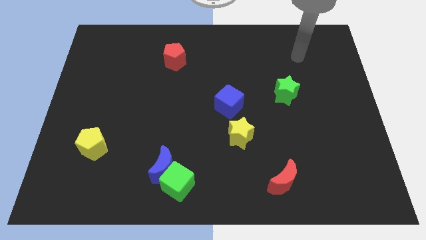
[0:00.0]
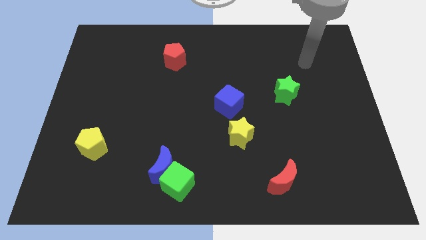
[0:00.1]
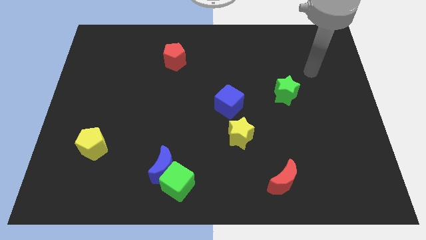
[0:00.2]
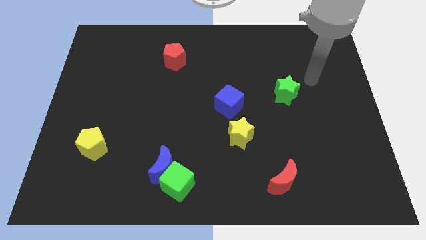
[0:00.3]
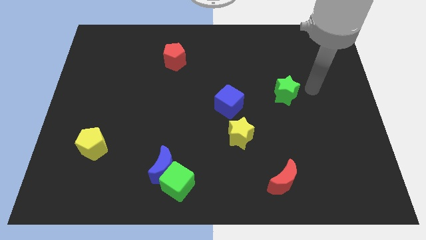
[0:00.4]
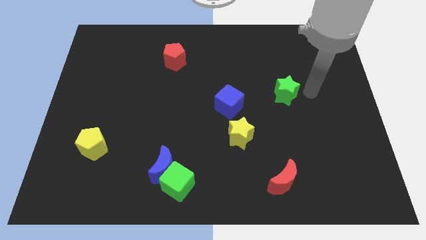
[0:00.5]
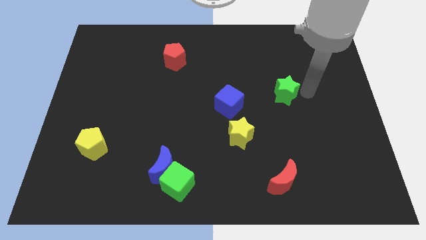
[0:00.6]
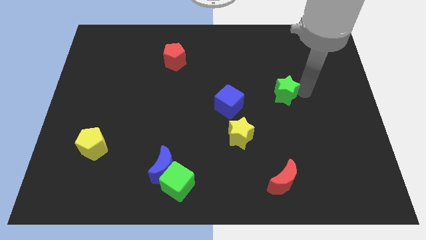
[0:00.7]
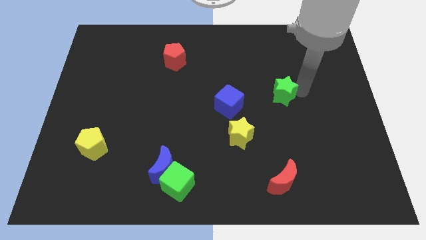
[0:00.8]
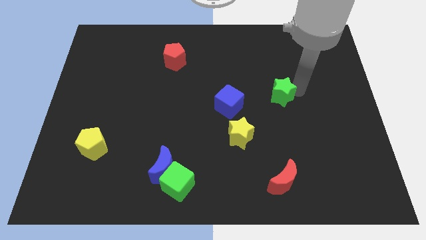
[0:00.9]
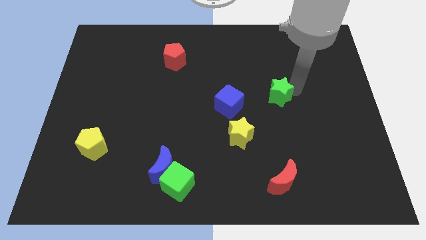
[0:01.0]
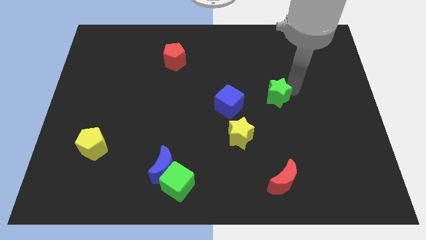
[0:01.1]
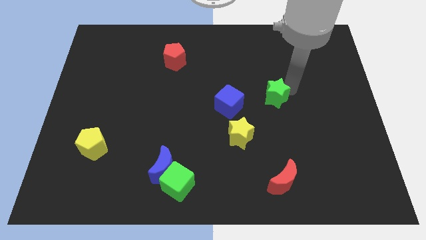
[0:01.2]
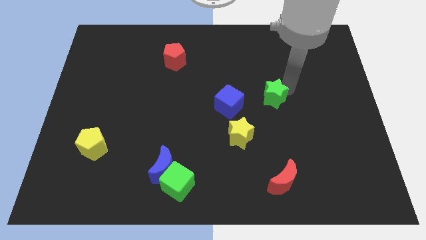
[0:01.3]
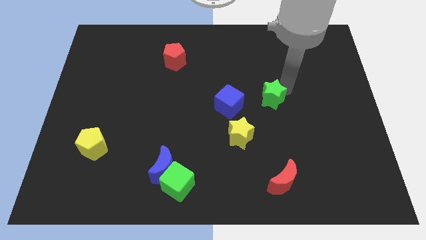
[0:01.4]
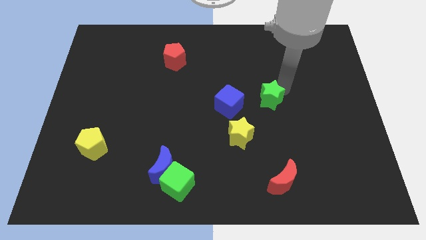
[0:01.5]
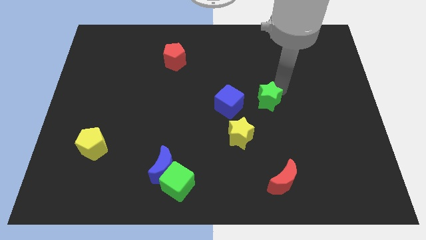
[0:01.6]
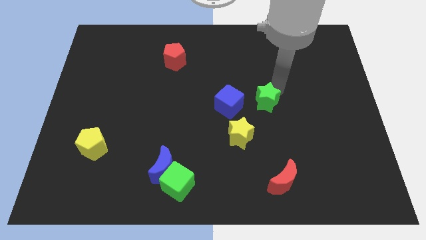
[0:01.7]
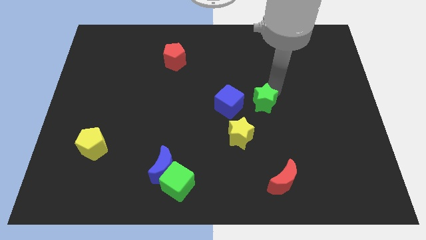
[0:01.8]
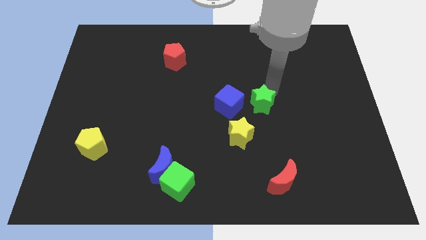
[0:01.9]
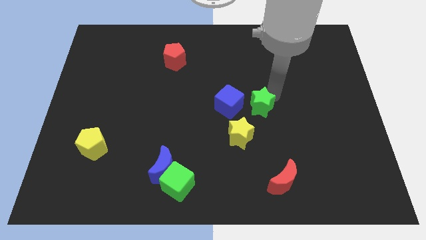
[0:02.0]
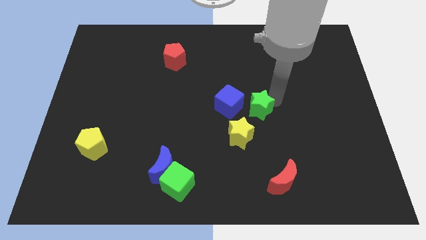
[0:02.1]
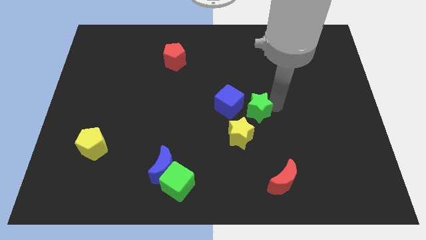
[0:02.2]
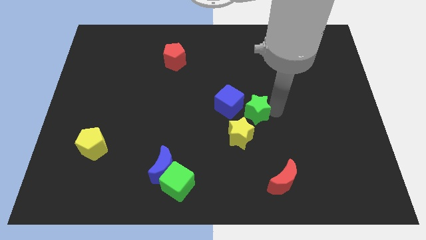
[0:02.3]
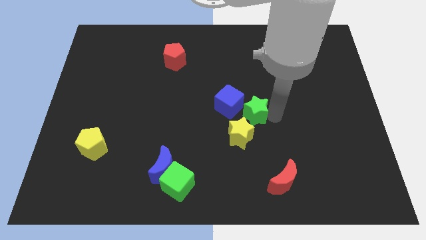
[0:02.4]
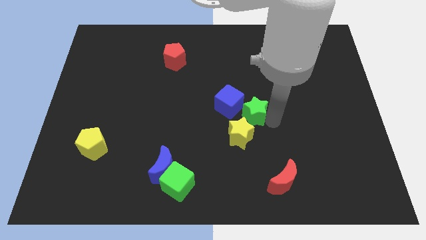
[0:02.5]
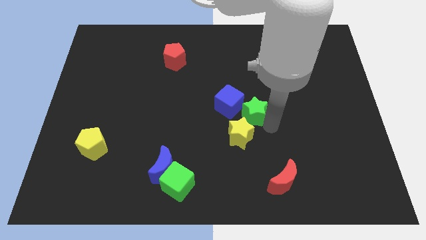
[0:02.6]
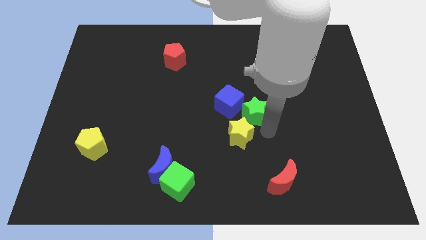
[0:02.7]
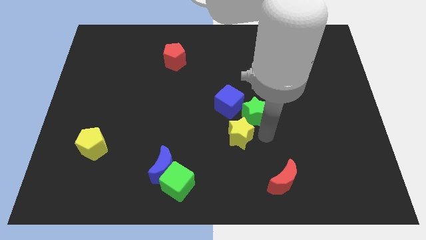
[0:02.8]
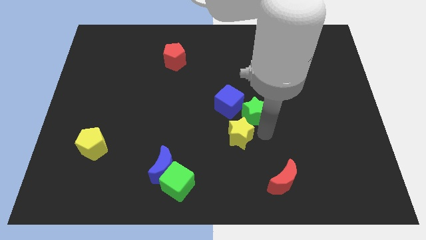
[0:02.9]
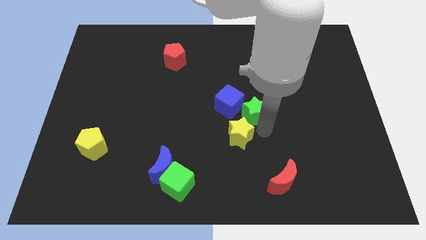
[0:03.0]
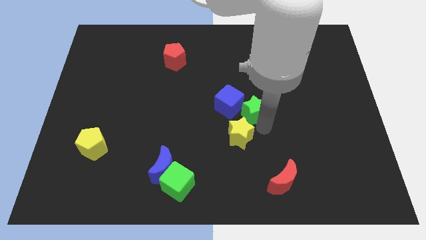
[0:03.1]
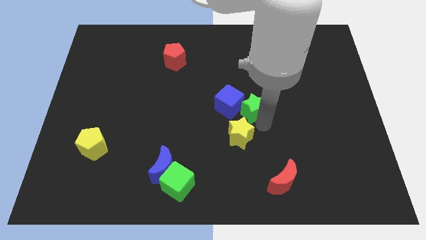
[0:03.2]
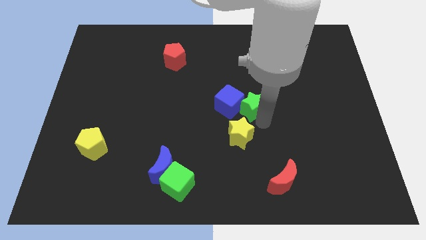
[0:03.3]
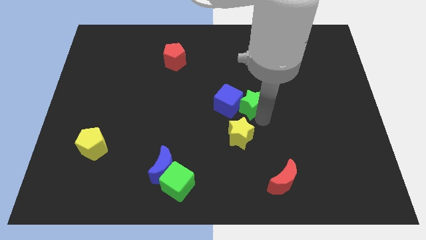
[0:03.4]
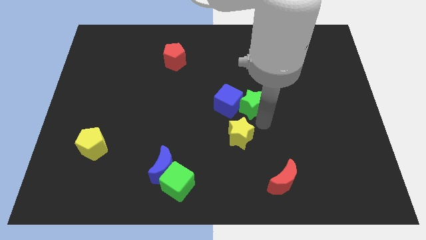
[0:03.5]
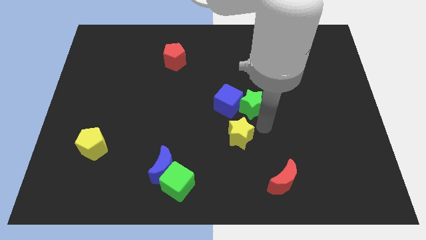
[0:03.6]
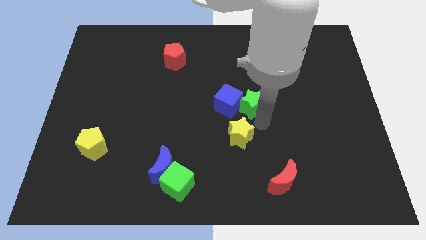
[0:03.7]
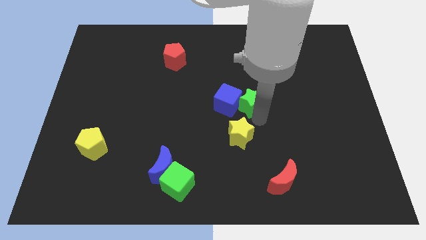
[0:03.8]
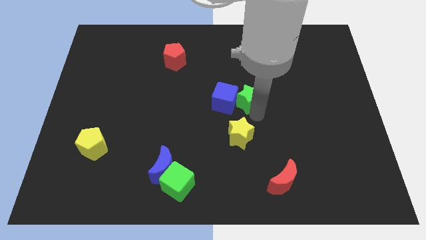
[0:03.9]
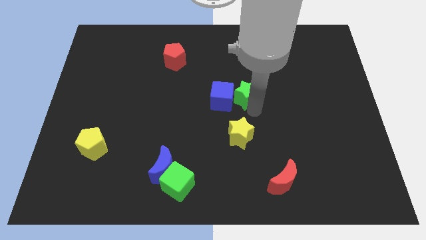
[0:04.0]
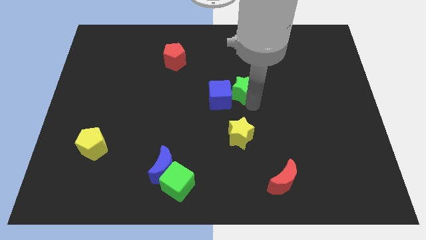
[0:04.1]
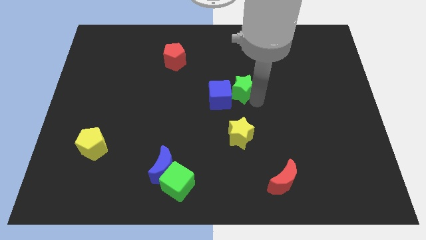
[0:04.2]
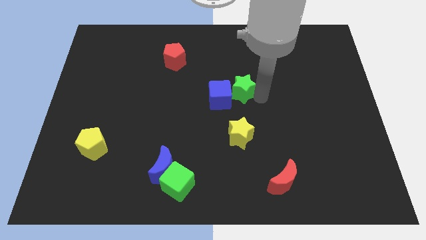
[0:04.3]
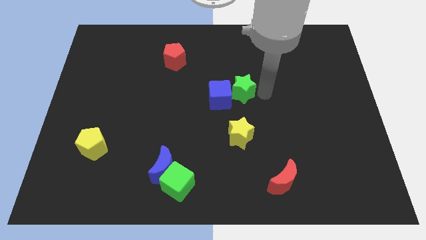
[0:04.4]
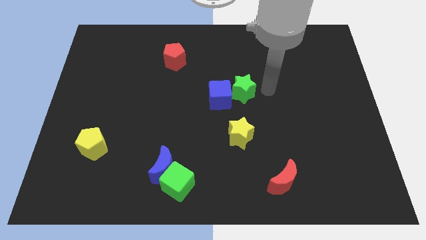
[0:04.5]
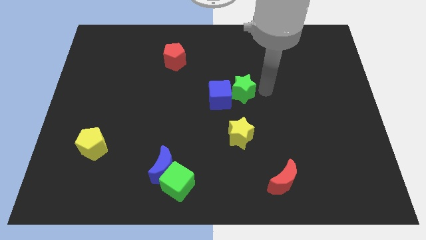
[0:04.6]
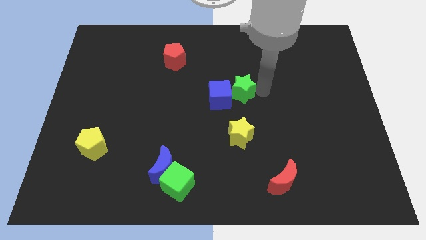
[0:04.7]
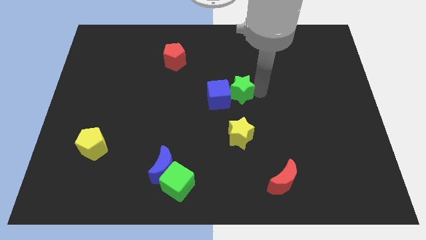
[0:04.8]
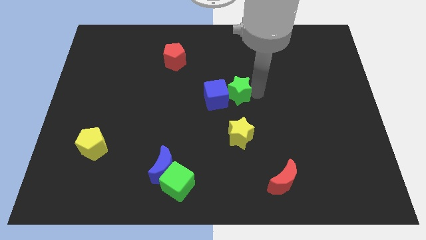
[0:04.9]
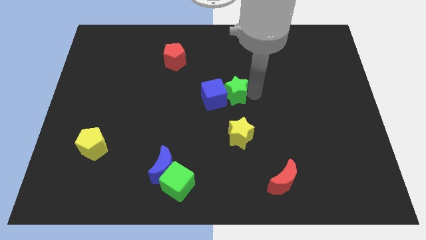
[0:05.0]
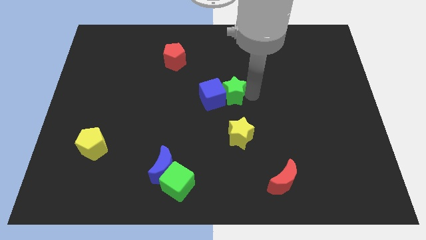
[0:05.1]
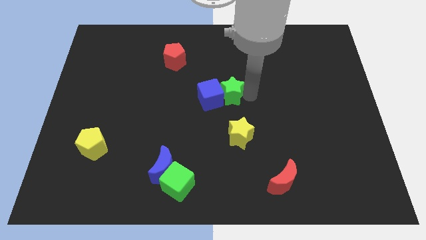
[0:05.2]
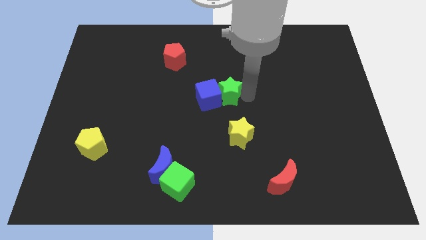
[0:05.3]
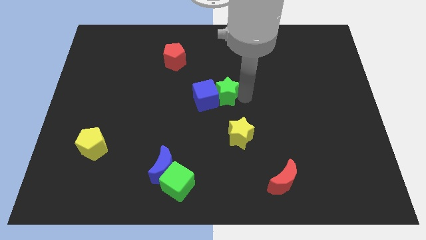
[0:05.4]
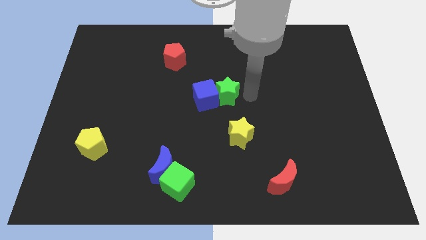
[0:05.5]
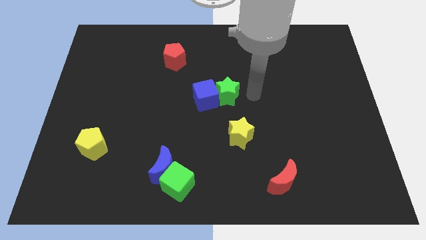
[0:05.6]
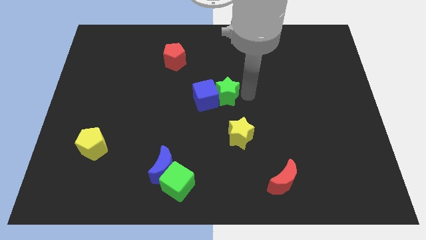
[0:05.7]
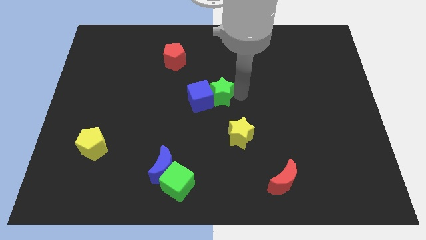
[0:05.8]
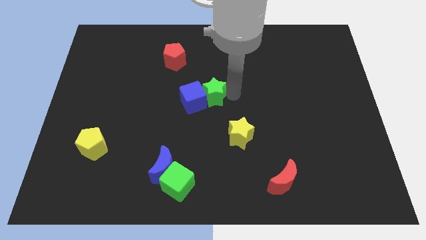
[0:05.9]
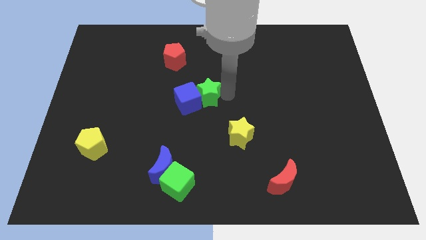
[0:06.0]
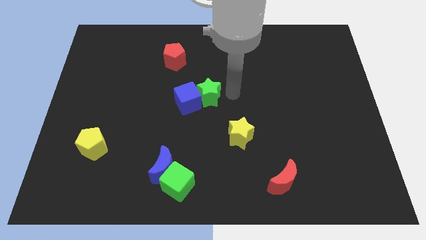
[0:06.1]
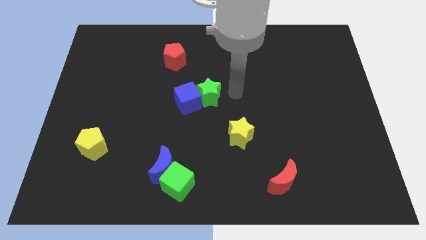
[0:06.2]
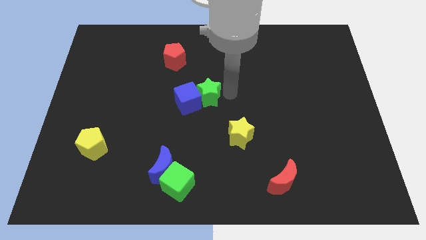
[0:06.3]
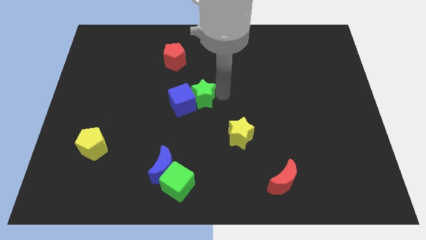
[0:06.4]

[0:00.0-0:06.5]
push the green star left

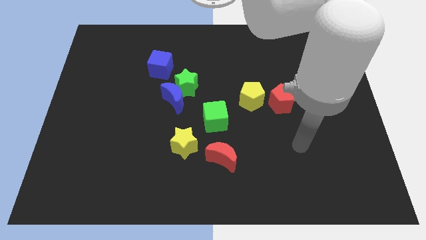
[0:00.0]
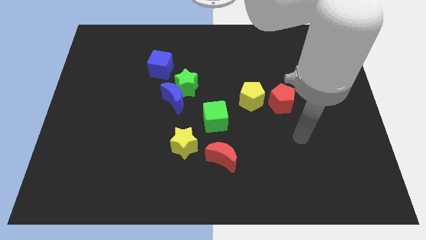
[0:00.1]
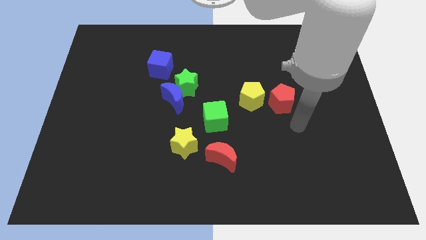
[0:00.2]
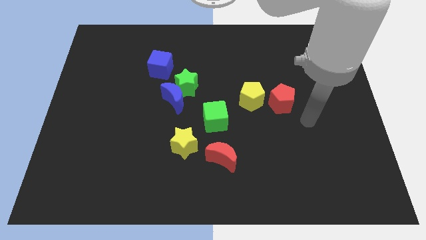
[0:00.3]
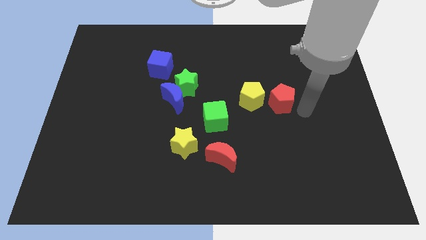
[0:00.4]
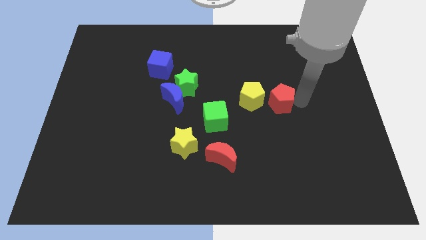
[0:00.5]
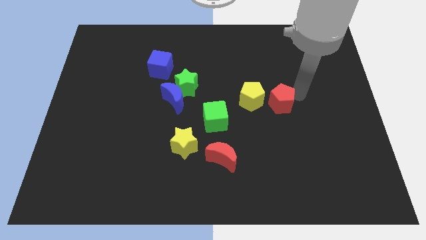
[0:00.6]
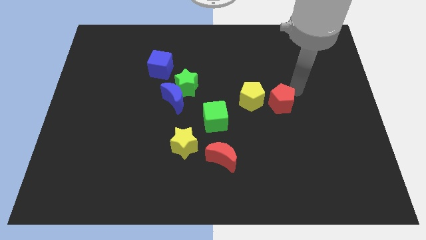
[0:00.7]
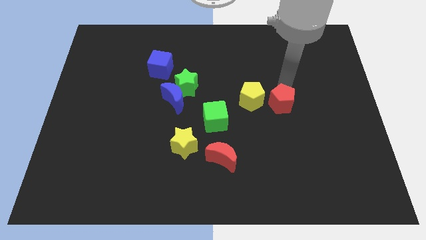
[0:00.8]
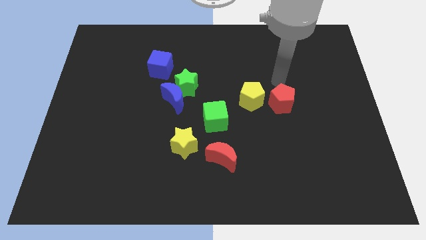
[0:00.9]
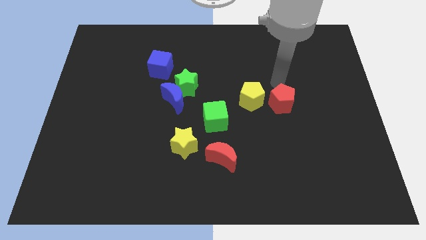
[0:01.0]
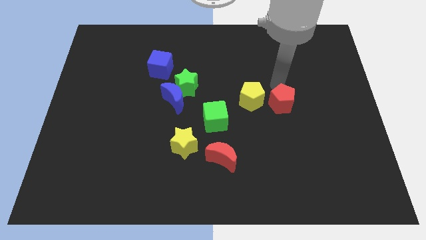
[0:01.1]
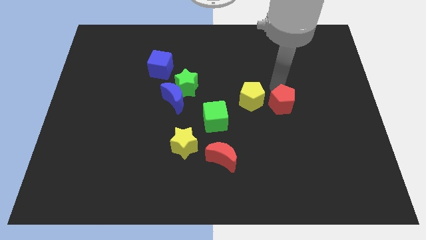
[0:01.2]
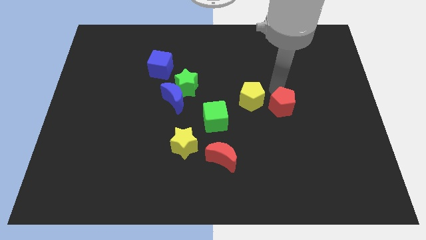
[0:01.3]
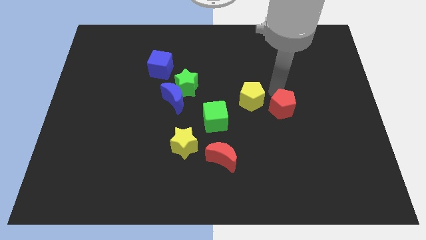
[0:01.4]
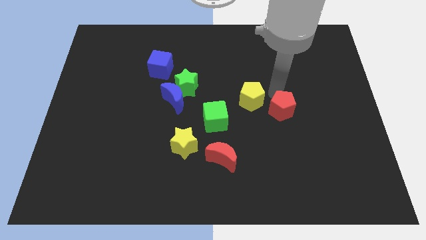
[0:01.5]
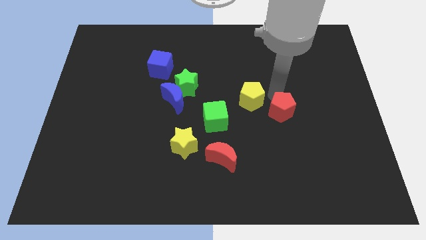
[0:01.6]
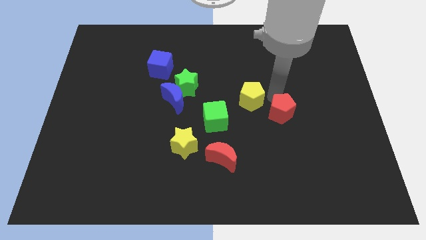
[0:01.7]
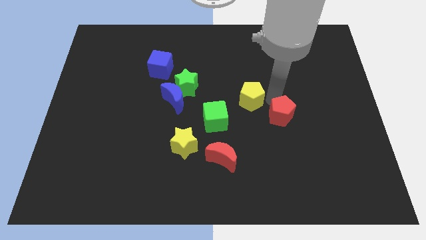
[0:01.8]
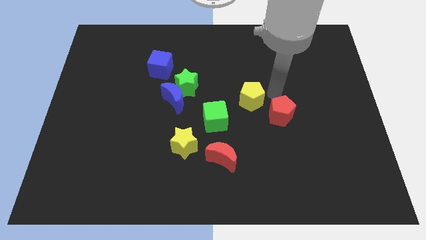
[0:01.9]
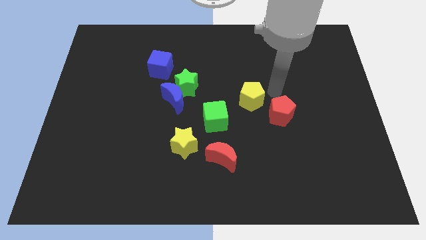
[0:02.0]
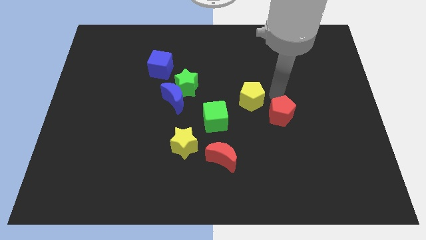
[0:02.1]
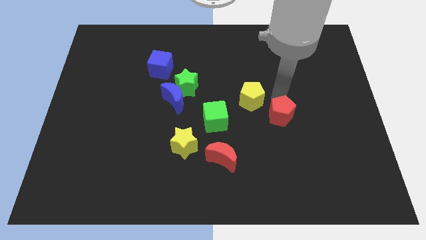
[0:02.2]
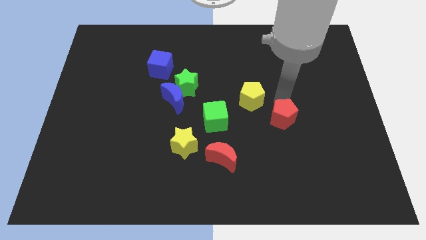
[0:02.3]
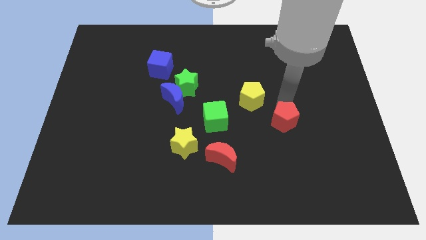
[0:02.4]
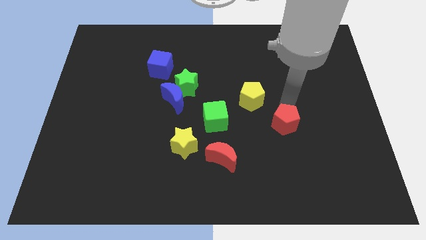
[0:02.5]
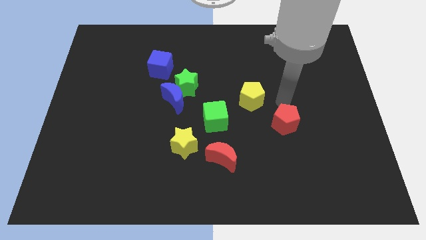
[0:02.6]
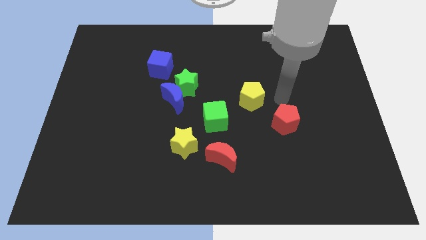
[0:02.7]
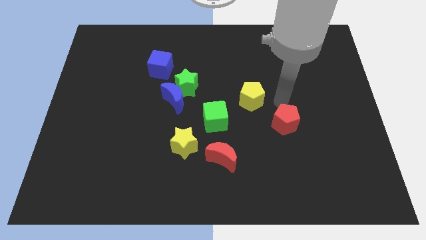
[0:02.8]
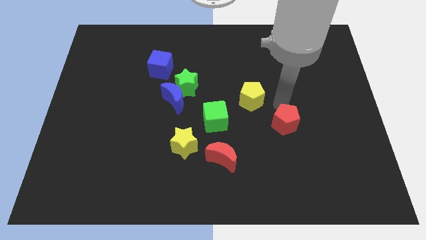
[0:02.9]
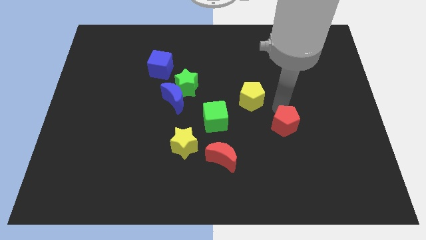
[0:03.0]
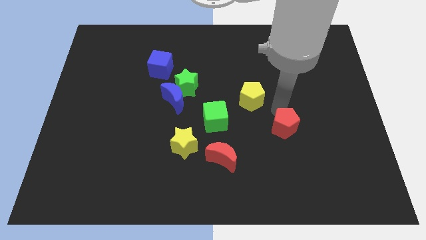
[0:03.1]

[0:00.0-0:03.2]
slide the red pentagon a little bit downwards
